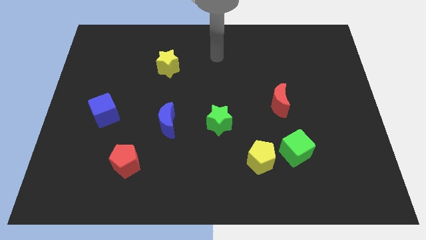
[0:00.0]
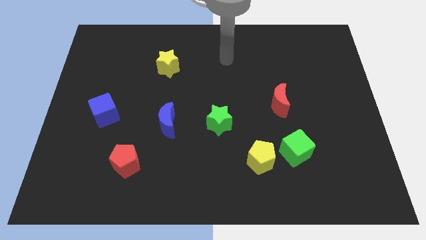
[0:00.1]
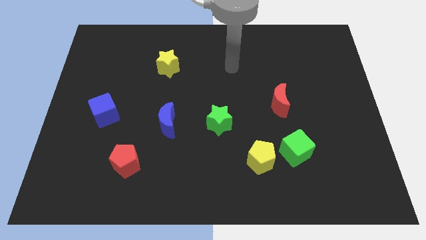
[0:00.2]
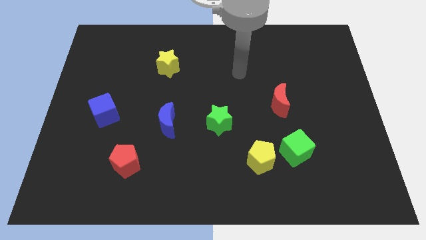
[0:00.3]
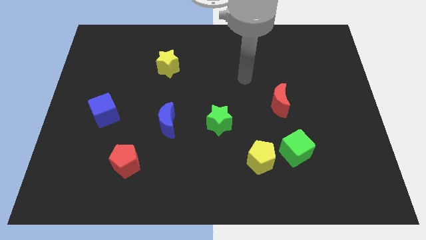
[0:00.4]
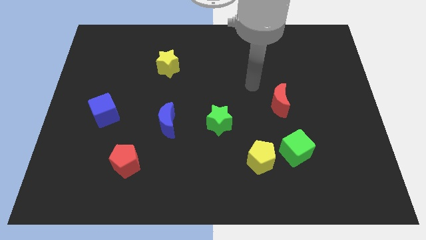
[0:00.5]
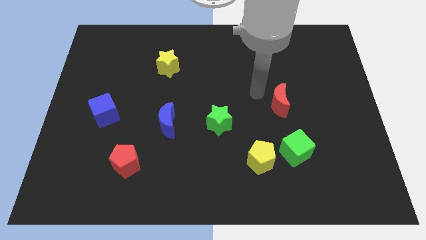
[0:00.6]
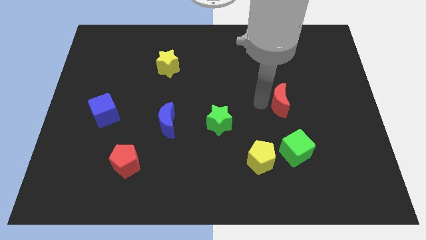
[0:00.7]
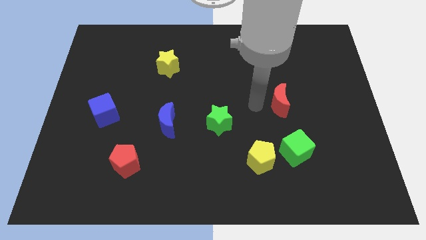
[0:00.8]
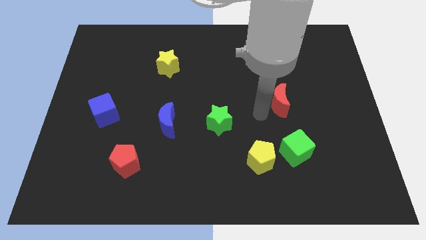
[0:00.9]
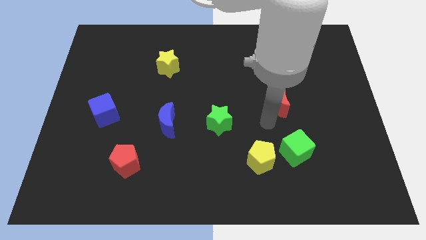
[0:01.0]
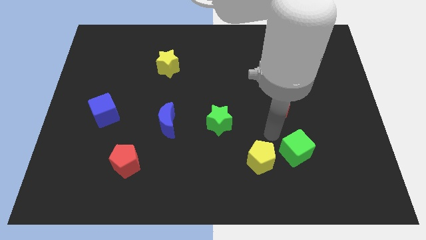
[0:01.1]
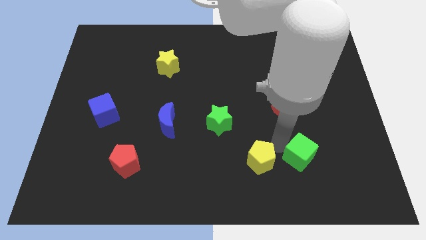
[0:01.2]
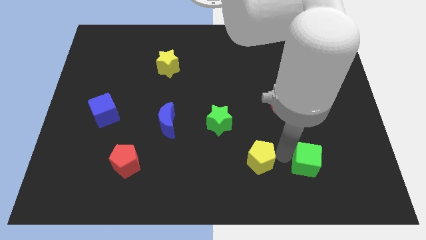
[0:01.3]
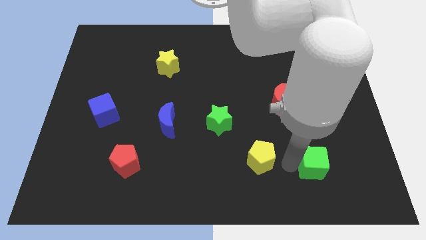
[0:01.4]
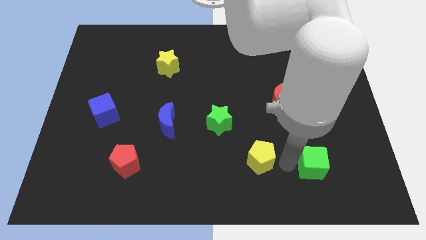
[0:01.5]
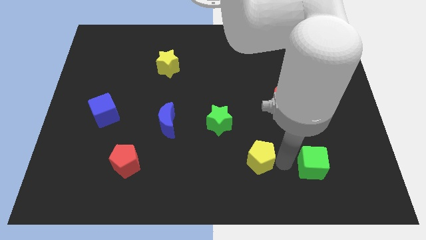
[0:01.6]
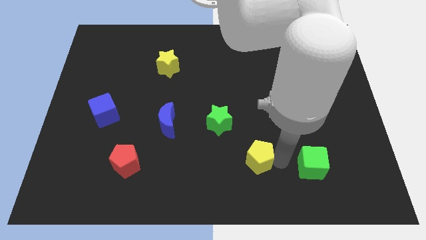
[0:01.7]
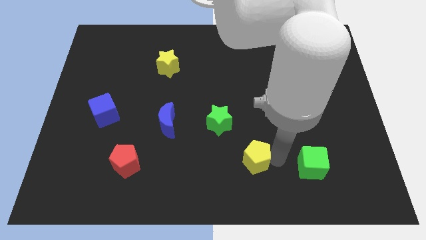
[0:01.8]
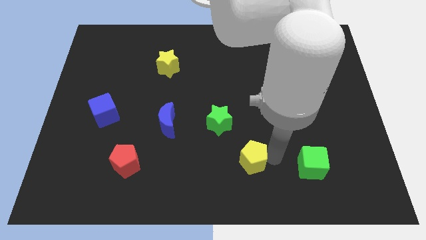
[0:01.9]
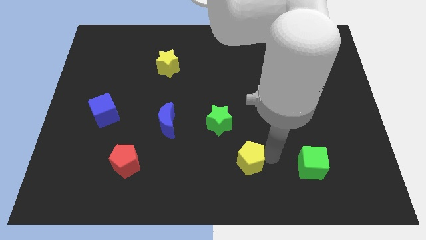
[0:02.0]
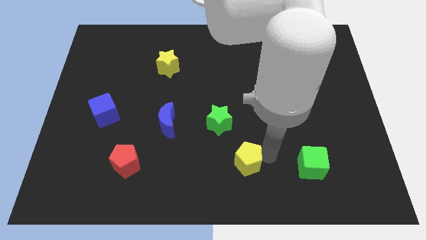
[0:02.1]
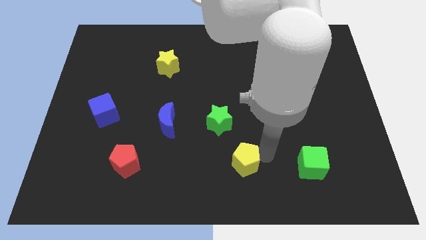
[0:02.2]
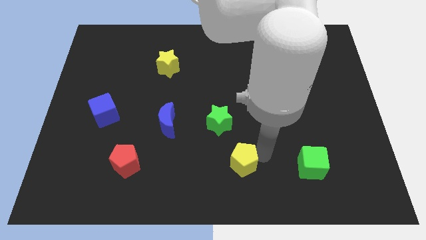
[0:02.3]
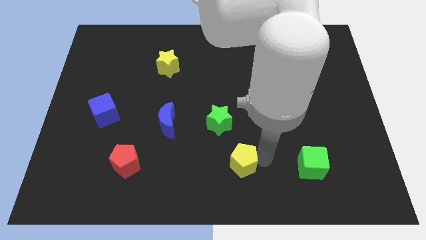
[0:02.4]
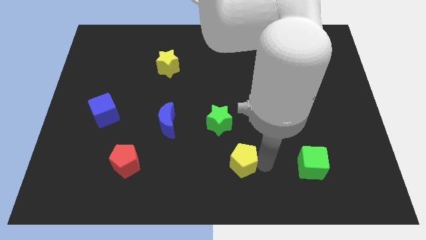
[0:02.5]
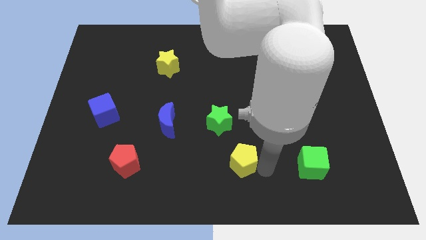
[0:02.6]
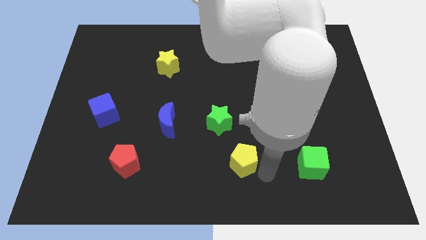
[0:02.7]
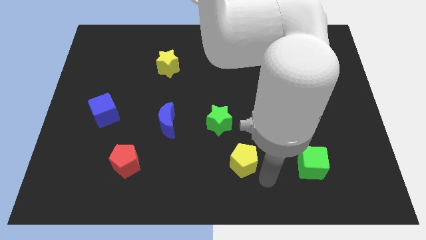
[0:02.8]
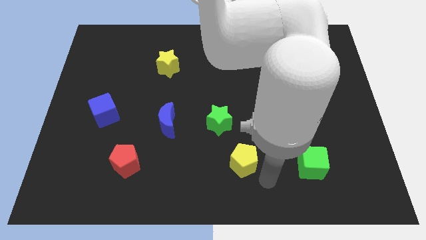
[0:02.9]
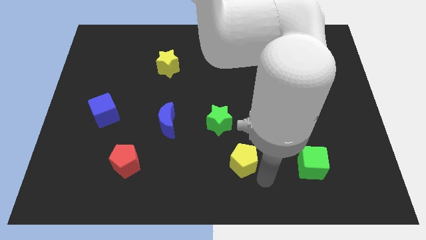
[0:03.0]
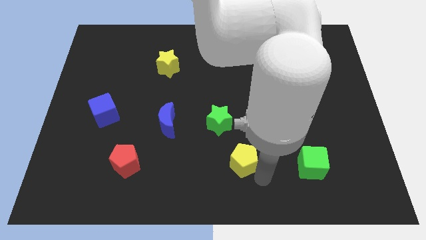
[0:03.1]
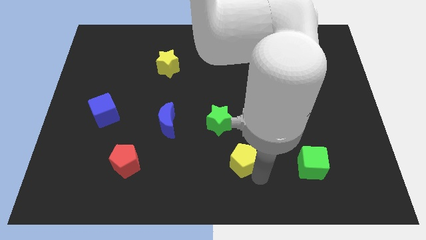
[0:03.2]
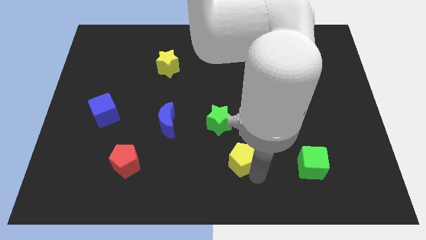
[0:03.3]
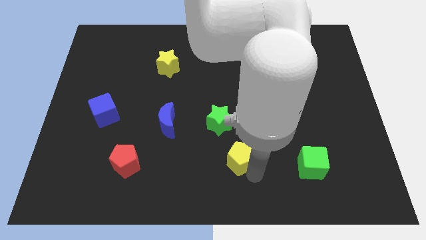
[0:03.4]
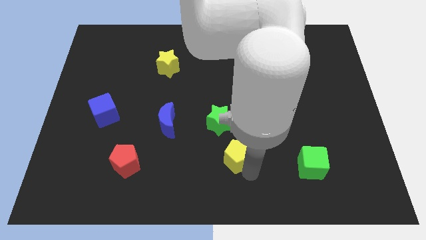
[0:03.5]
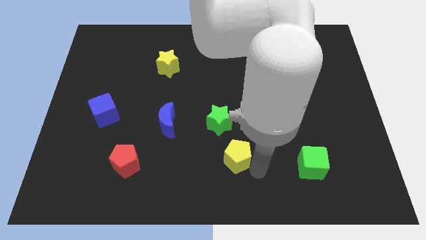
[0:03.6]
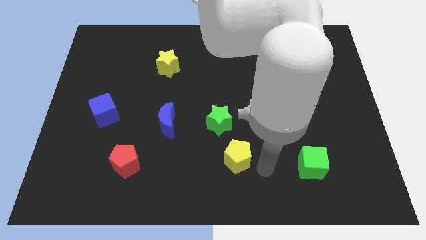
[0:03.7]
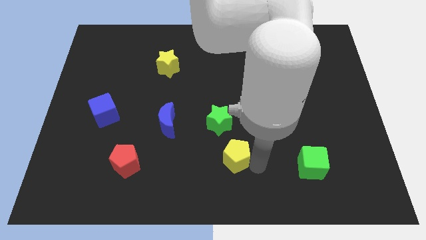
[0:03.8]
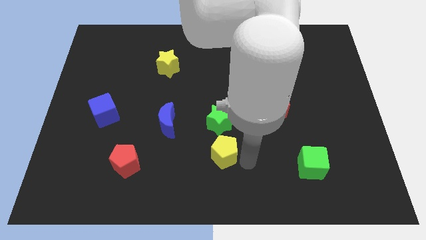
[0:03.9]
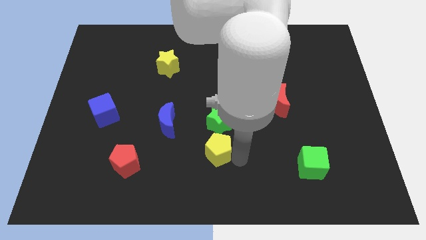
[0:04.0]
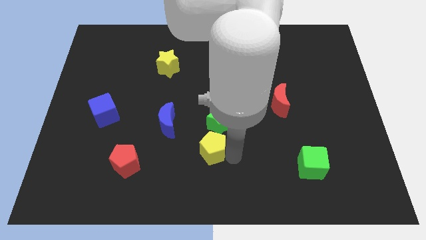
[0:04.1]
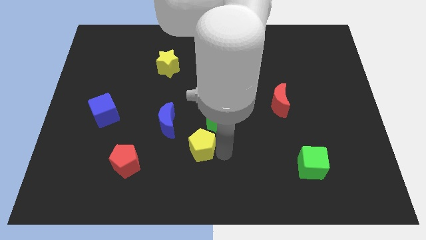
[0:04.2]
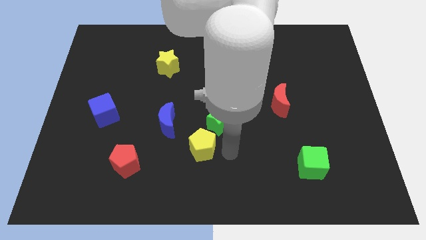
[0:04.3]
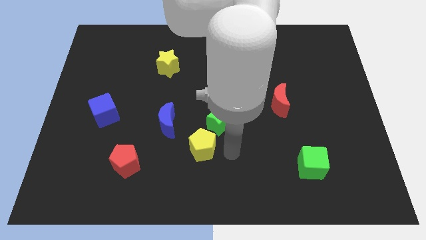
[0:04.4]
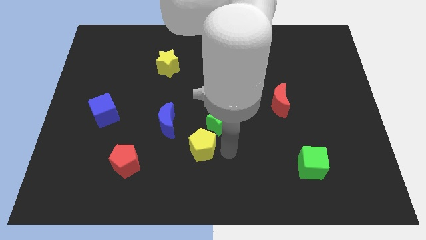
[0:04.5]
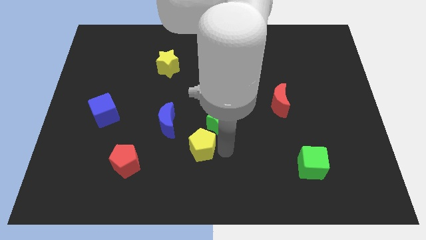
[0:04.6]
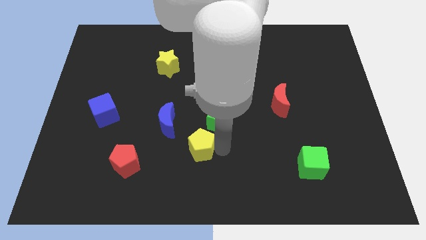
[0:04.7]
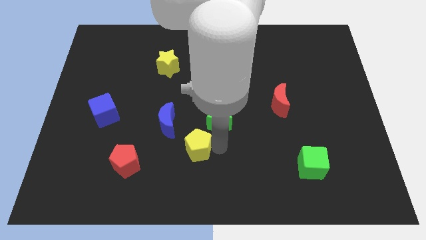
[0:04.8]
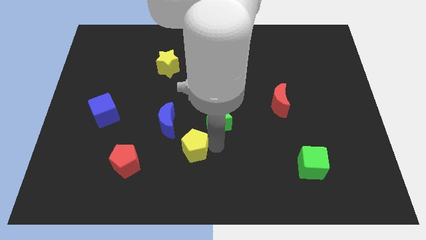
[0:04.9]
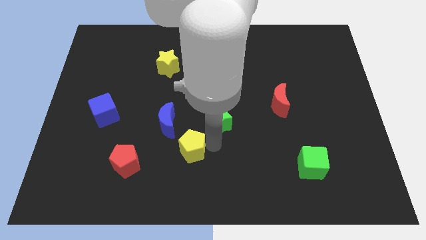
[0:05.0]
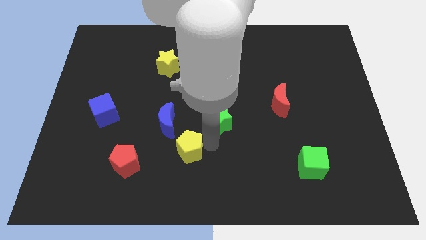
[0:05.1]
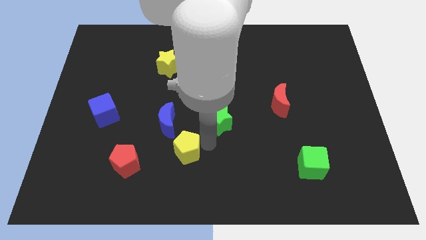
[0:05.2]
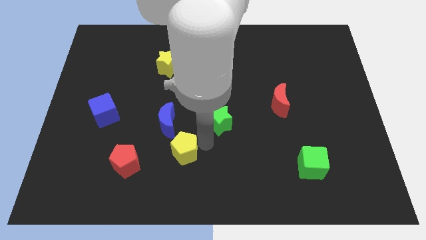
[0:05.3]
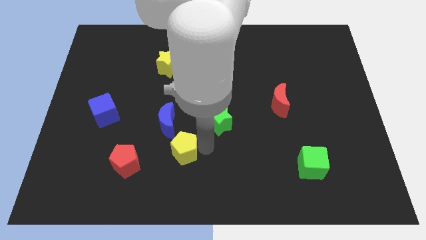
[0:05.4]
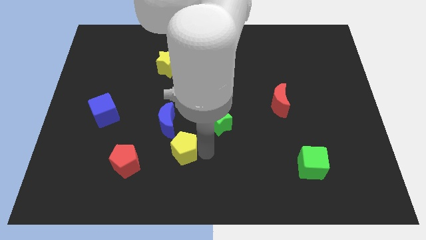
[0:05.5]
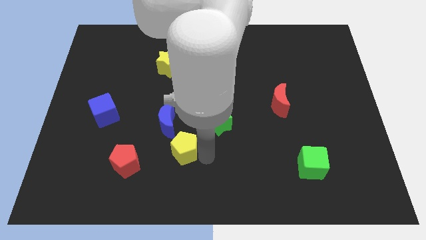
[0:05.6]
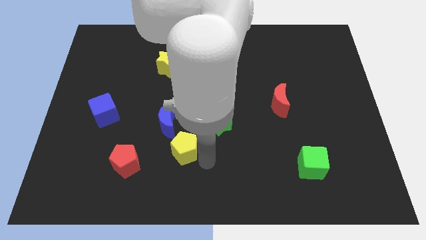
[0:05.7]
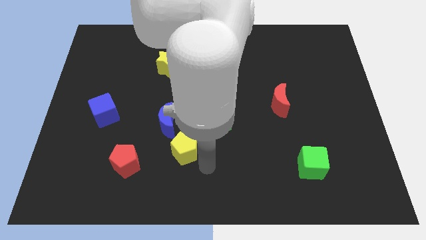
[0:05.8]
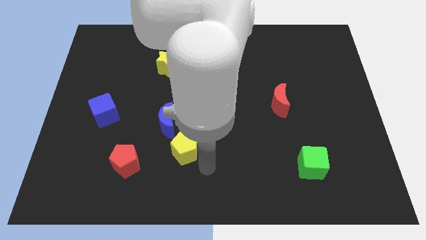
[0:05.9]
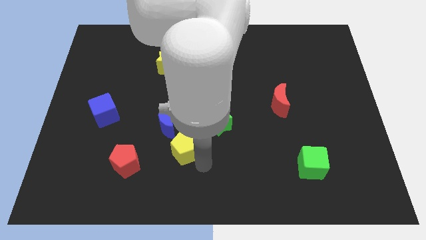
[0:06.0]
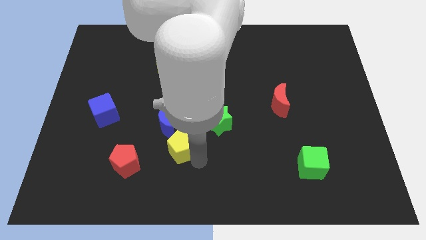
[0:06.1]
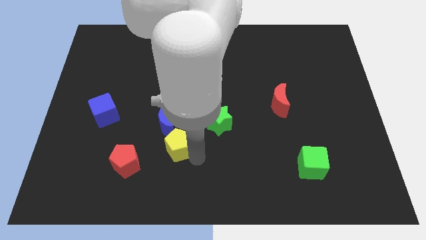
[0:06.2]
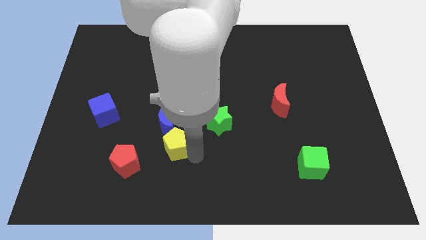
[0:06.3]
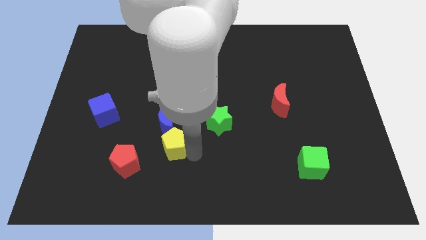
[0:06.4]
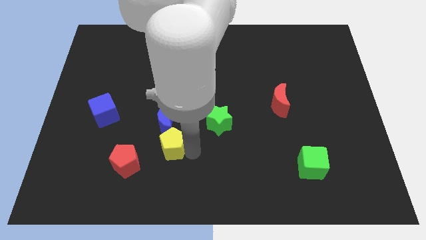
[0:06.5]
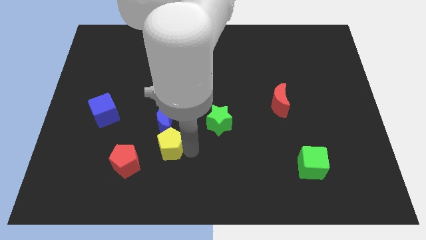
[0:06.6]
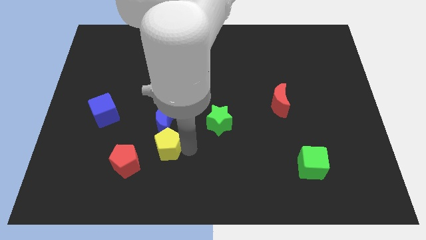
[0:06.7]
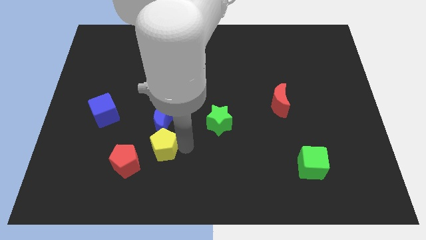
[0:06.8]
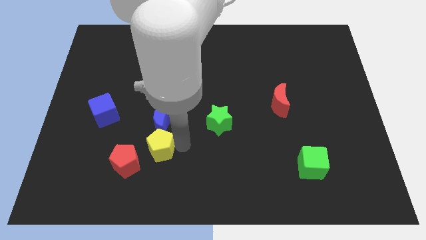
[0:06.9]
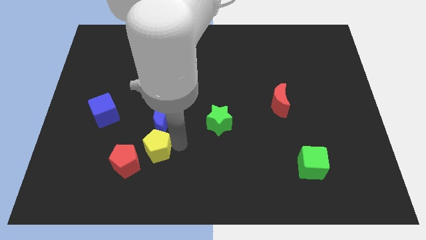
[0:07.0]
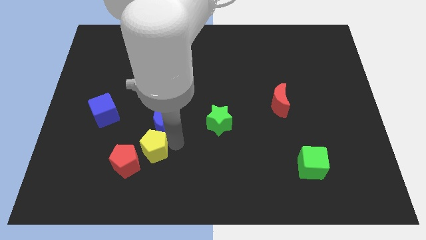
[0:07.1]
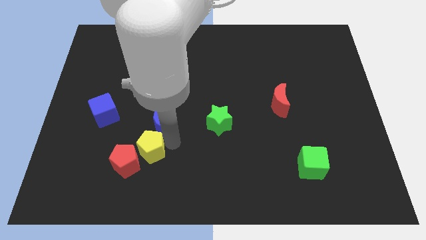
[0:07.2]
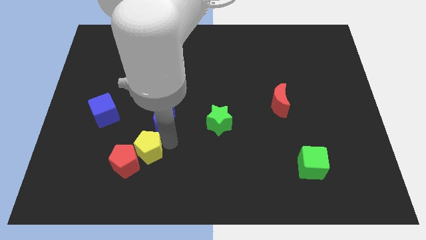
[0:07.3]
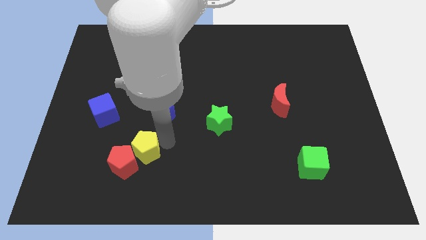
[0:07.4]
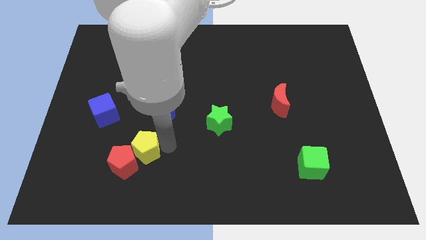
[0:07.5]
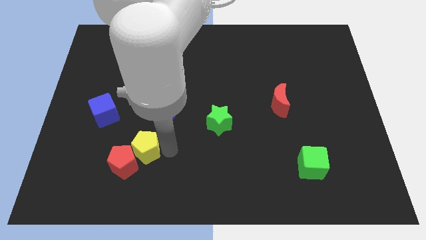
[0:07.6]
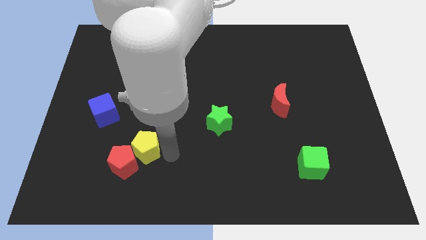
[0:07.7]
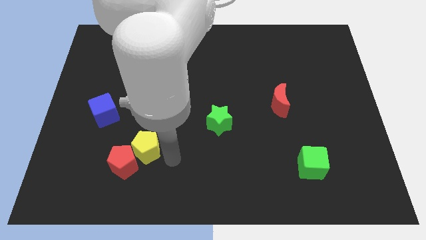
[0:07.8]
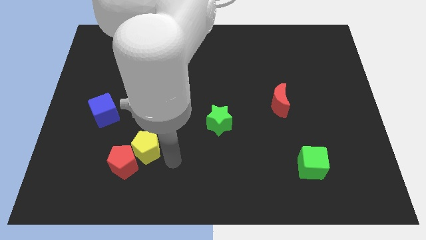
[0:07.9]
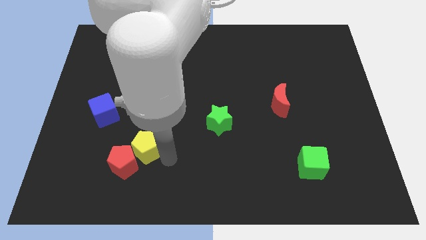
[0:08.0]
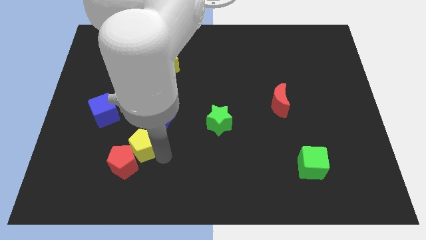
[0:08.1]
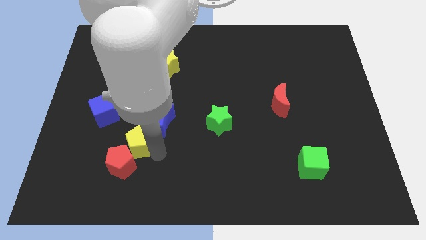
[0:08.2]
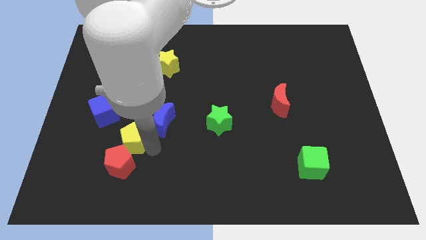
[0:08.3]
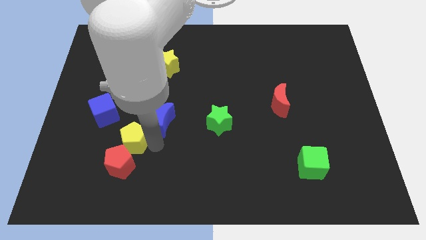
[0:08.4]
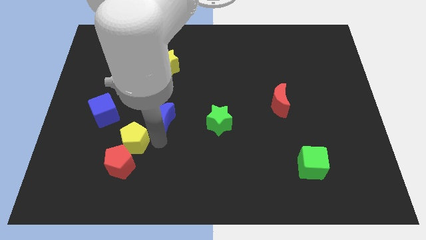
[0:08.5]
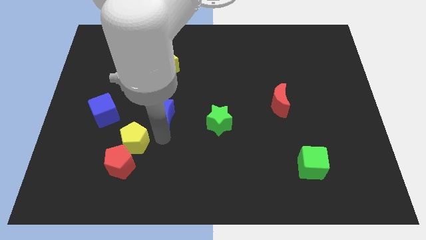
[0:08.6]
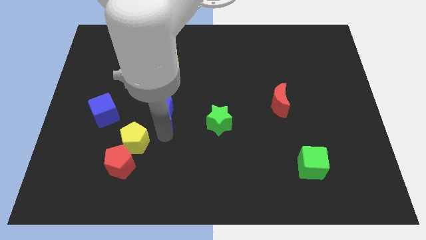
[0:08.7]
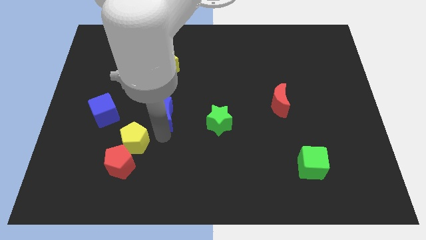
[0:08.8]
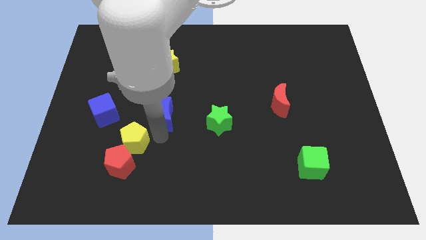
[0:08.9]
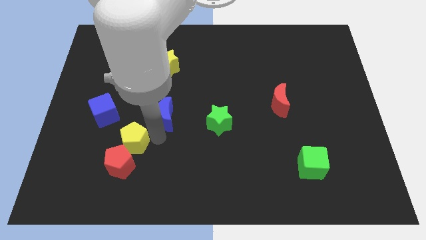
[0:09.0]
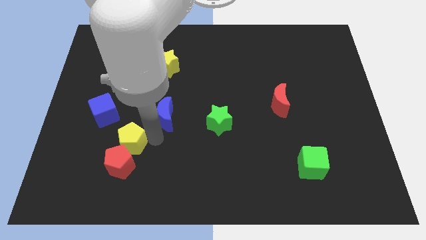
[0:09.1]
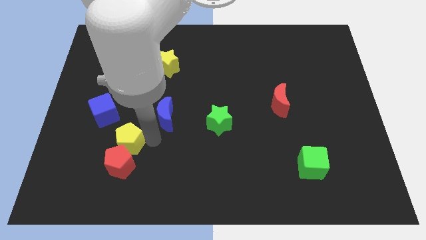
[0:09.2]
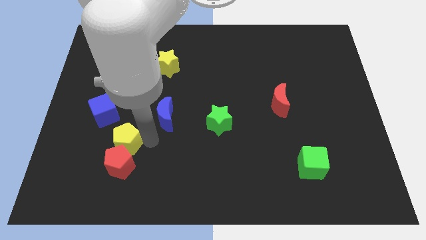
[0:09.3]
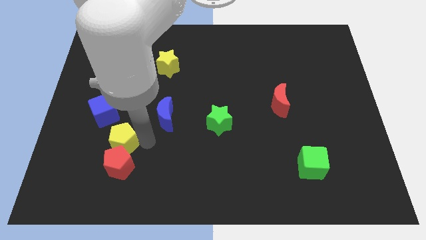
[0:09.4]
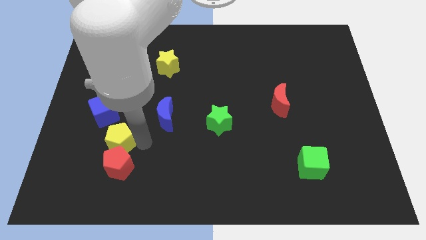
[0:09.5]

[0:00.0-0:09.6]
push the yellow pentagon to the bottom of the blue cube
